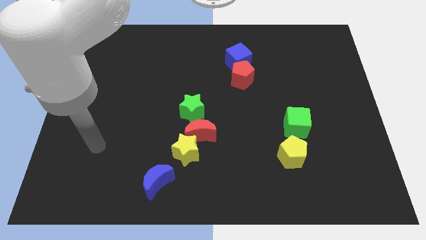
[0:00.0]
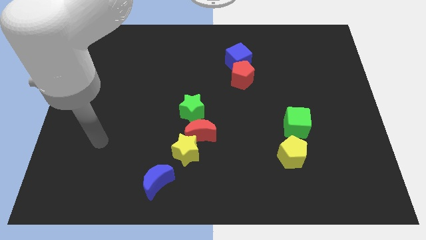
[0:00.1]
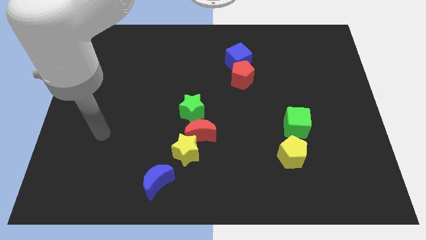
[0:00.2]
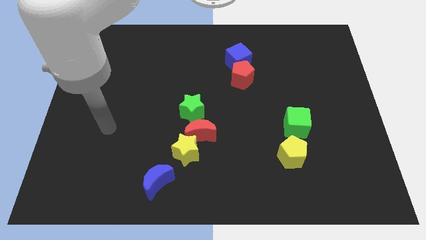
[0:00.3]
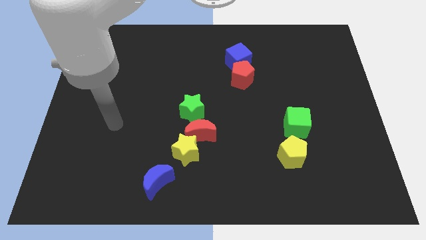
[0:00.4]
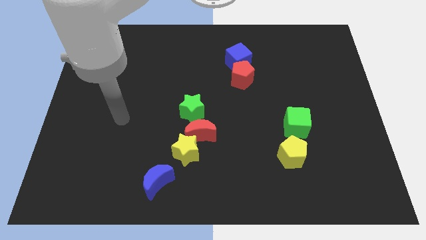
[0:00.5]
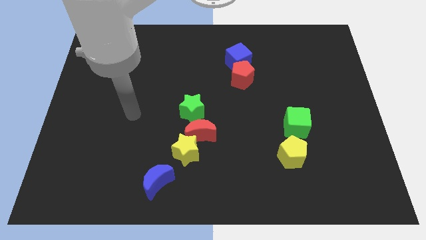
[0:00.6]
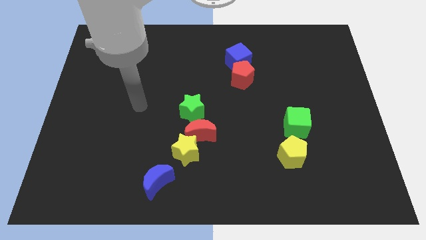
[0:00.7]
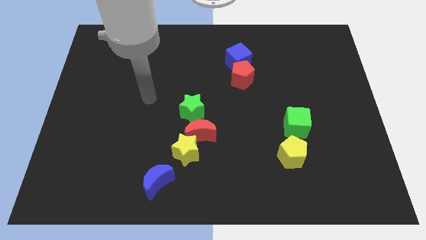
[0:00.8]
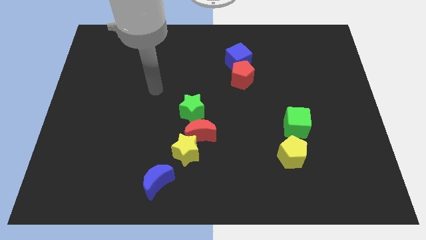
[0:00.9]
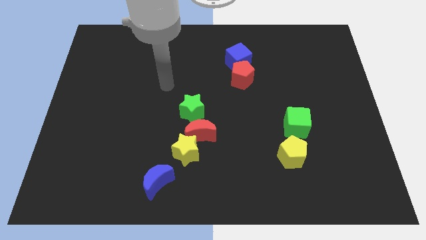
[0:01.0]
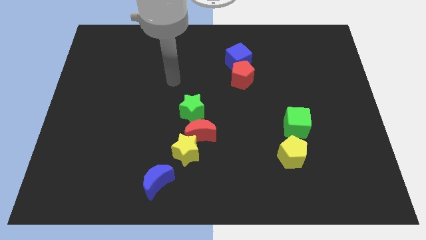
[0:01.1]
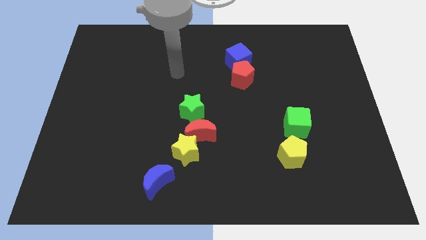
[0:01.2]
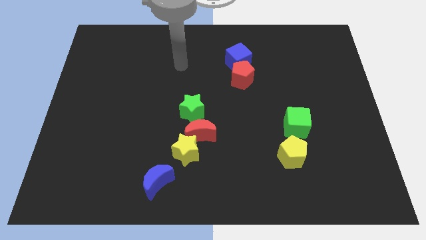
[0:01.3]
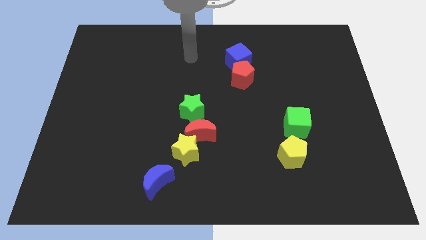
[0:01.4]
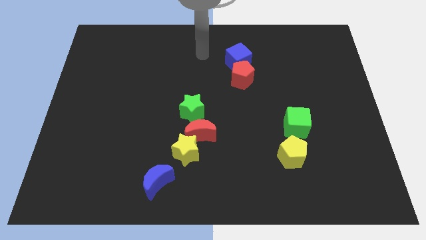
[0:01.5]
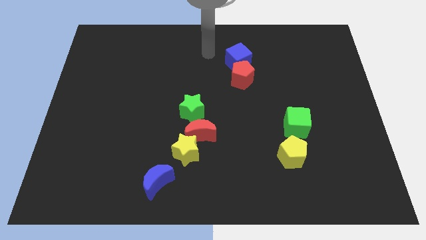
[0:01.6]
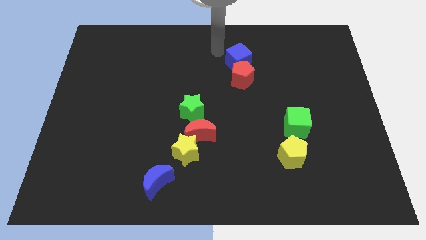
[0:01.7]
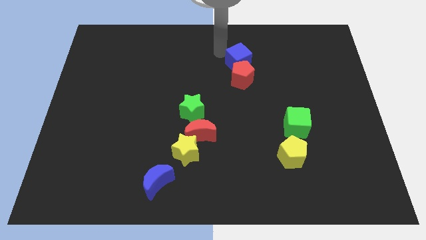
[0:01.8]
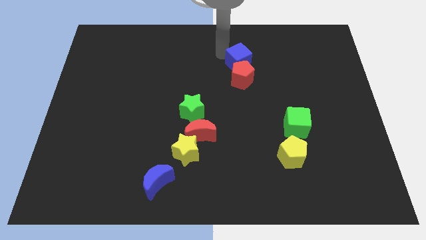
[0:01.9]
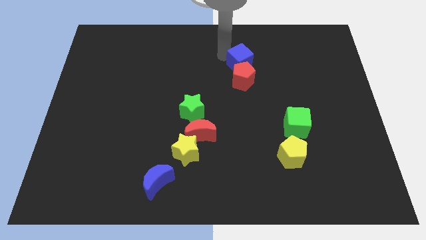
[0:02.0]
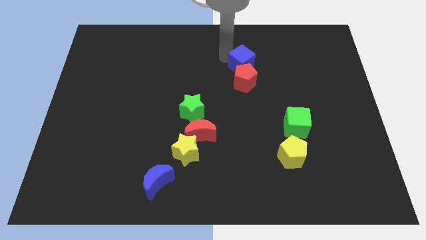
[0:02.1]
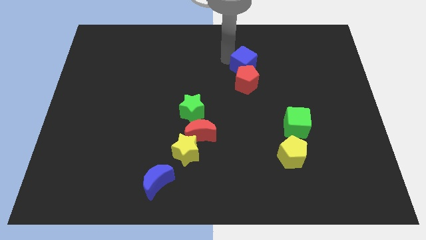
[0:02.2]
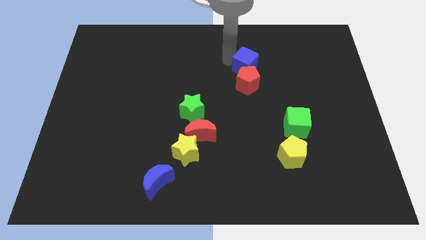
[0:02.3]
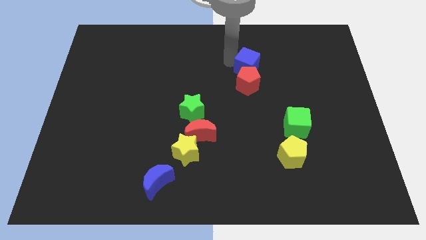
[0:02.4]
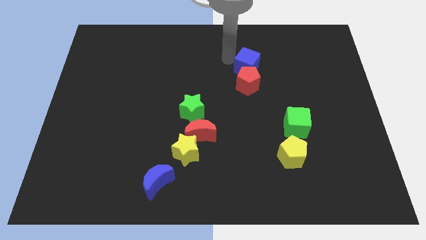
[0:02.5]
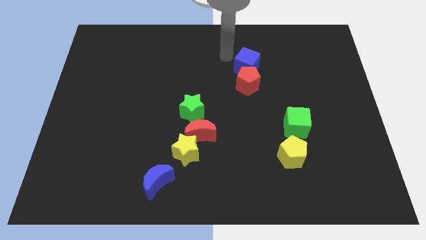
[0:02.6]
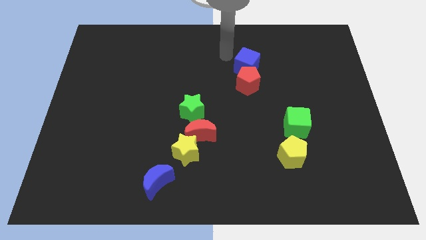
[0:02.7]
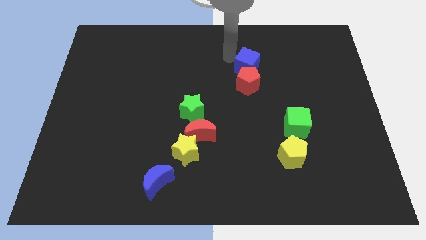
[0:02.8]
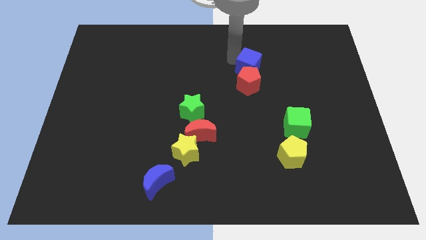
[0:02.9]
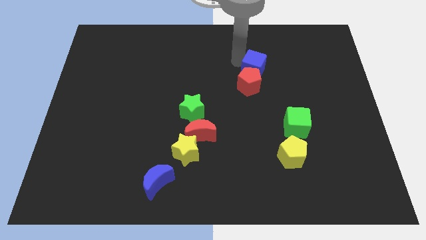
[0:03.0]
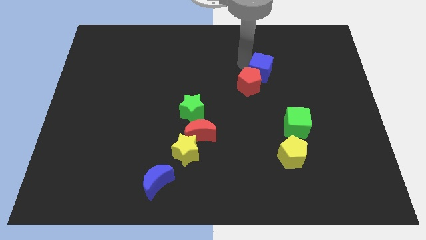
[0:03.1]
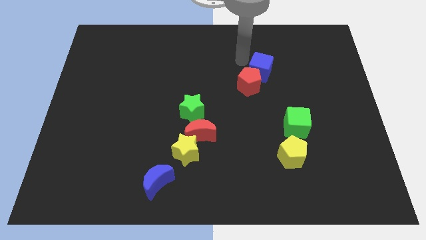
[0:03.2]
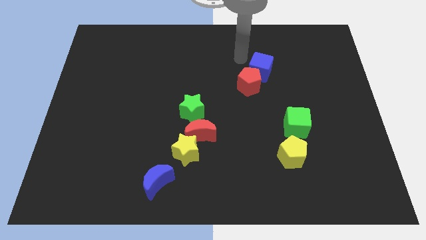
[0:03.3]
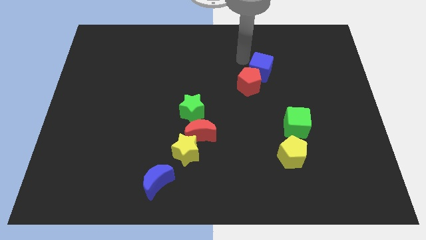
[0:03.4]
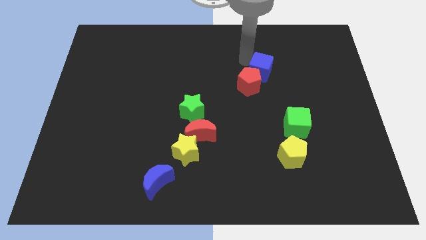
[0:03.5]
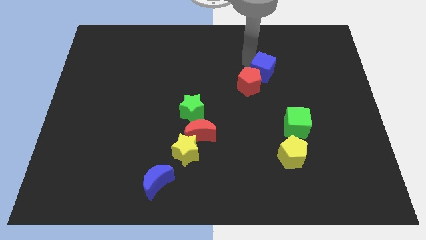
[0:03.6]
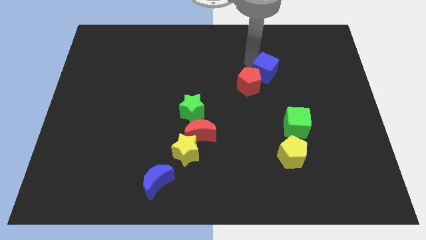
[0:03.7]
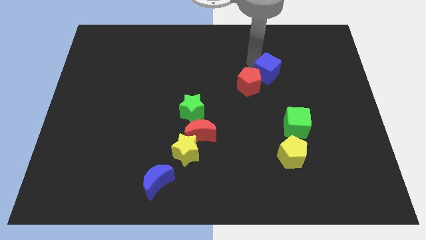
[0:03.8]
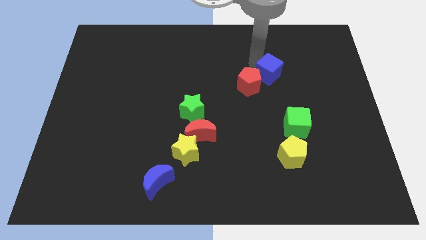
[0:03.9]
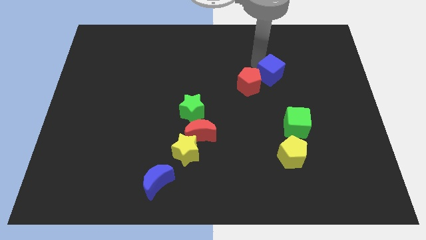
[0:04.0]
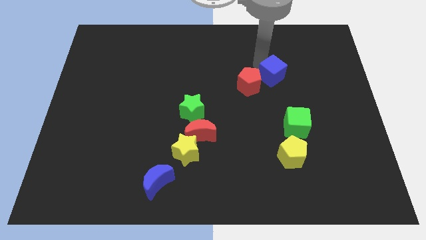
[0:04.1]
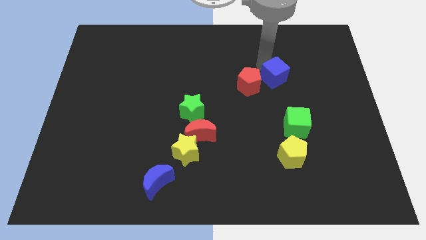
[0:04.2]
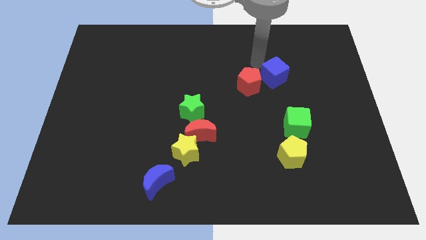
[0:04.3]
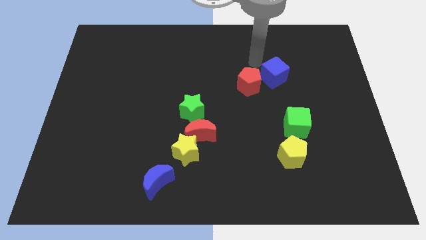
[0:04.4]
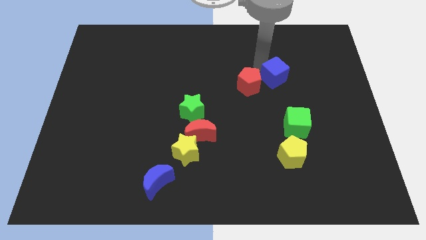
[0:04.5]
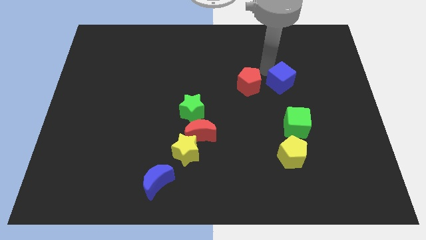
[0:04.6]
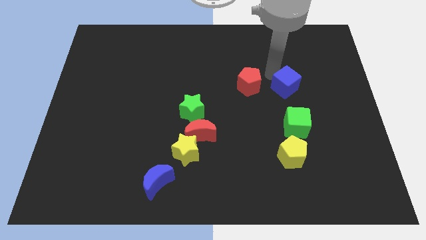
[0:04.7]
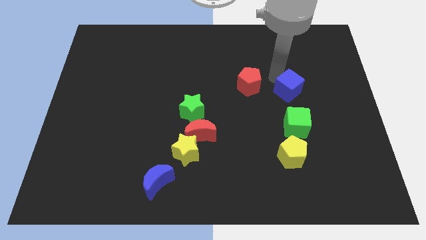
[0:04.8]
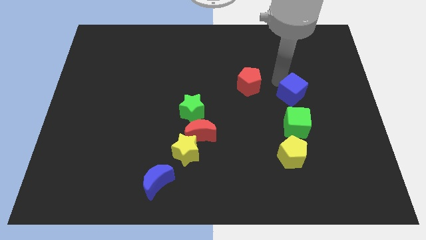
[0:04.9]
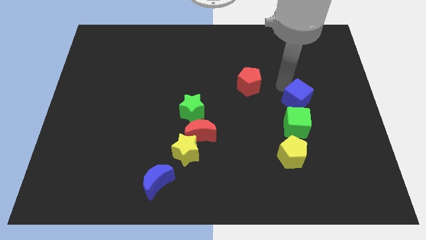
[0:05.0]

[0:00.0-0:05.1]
put the blue cube to the top right side of the green cube

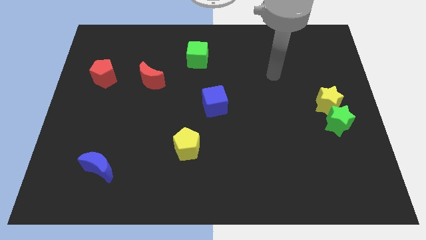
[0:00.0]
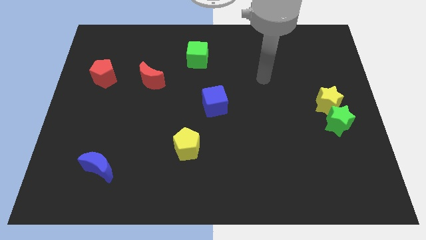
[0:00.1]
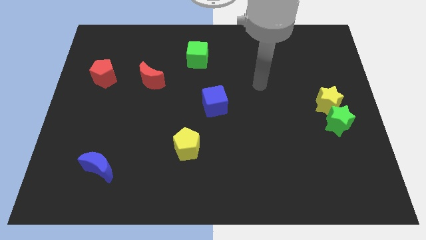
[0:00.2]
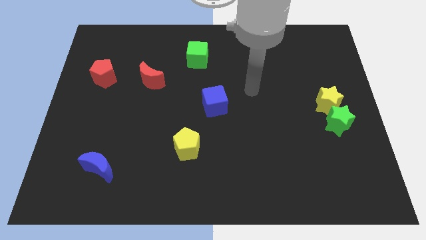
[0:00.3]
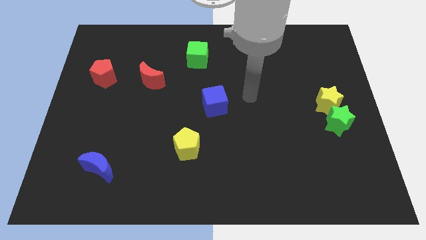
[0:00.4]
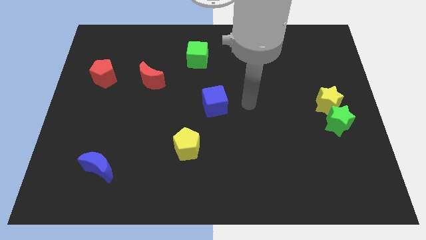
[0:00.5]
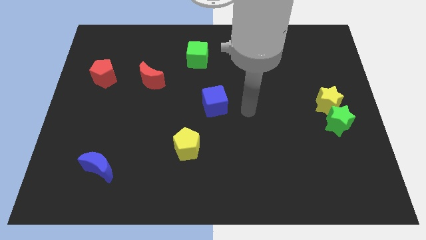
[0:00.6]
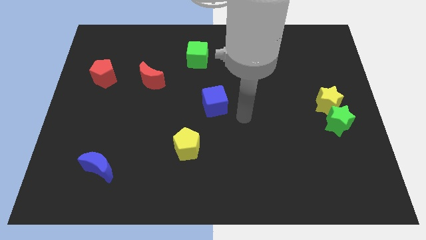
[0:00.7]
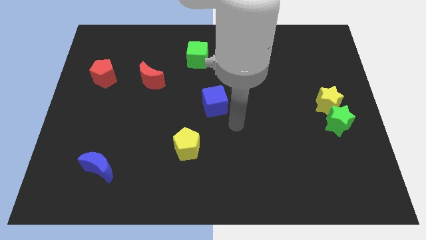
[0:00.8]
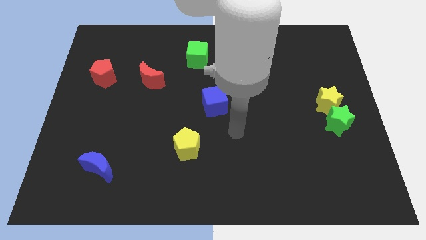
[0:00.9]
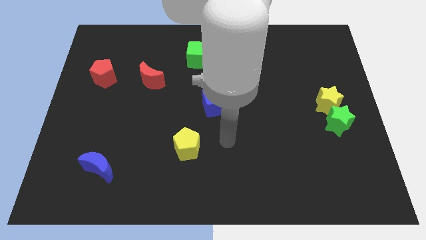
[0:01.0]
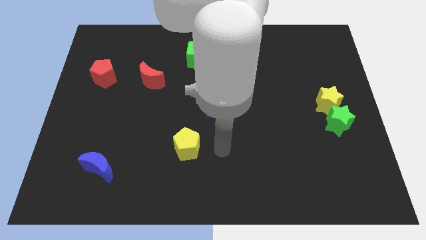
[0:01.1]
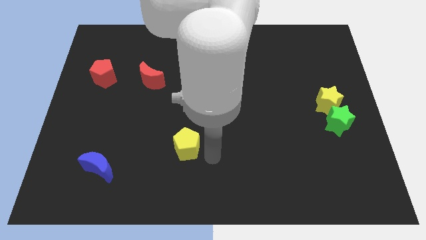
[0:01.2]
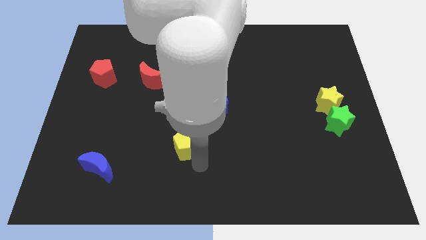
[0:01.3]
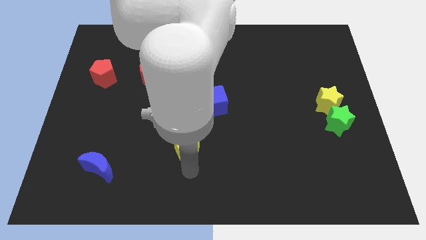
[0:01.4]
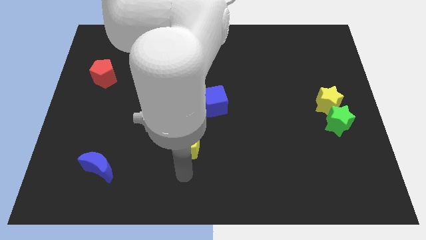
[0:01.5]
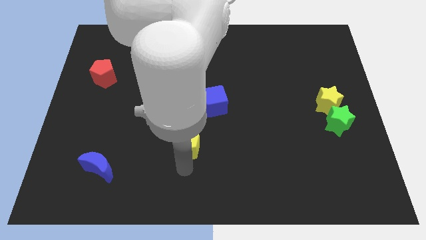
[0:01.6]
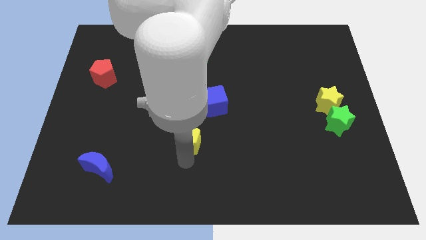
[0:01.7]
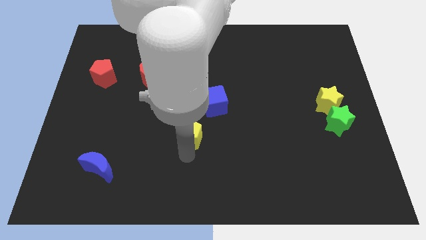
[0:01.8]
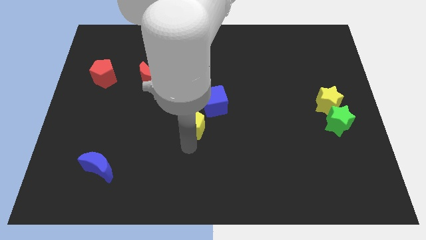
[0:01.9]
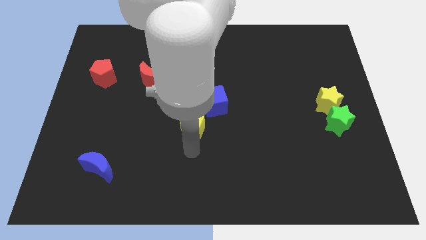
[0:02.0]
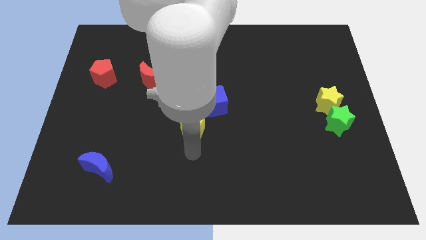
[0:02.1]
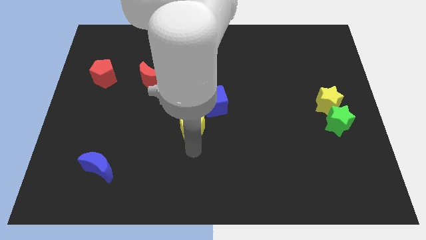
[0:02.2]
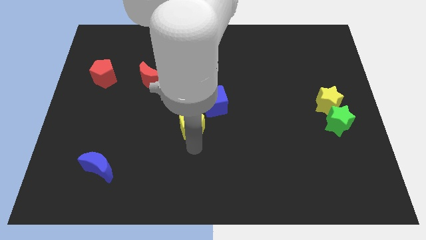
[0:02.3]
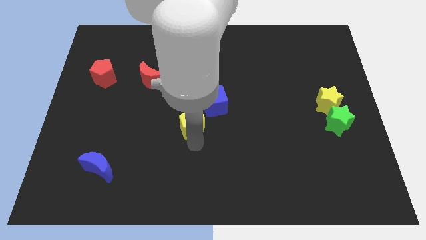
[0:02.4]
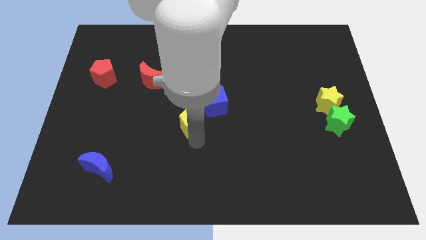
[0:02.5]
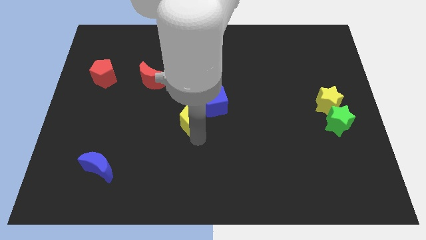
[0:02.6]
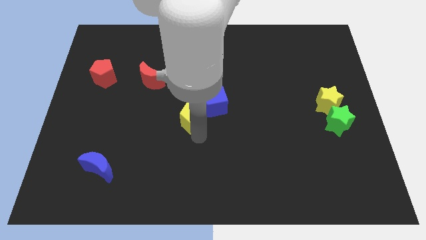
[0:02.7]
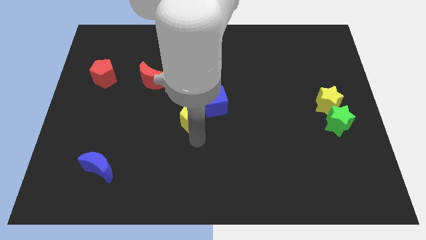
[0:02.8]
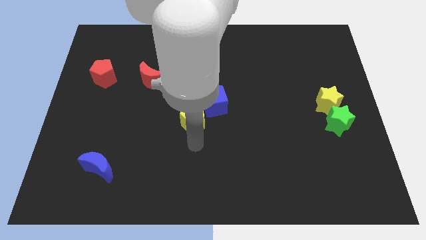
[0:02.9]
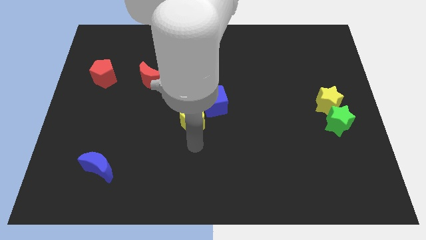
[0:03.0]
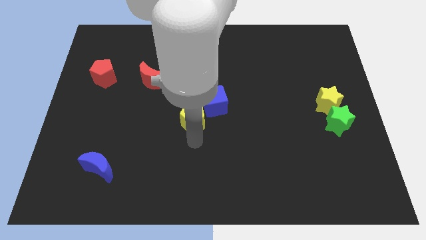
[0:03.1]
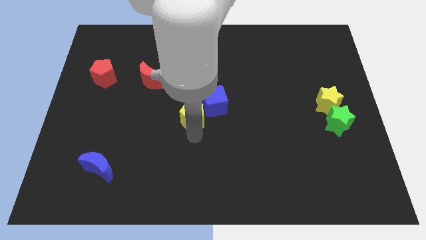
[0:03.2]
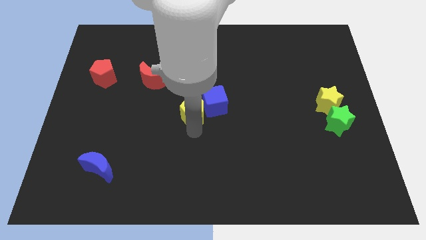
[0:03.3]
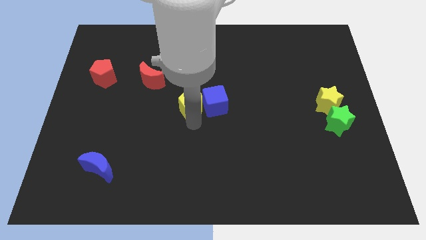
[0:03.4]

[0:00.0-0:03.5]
put the yellow pentagon to the bottom side of the green cube
